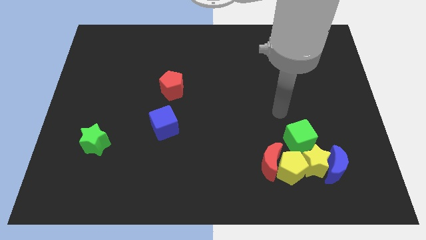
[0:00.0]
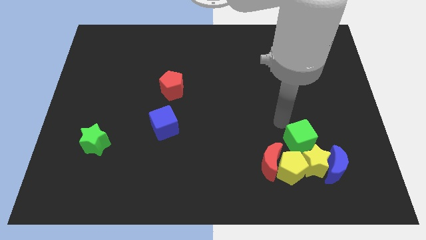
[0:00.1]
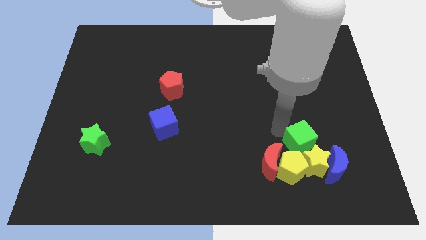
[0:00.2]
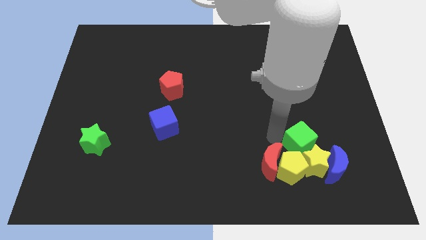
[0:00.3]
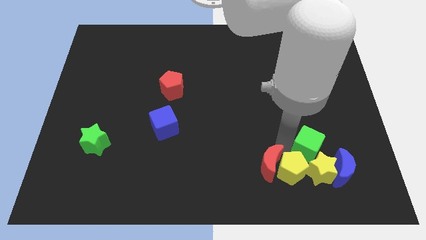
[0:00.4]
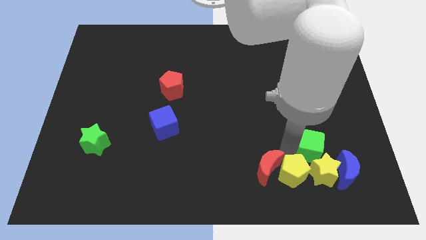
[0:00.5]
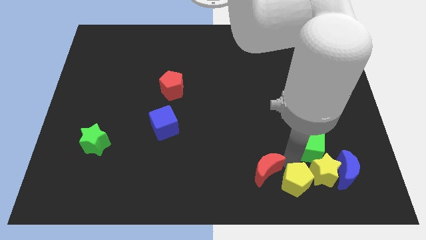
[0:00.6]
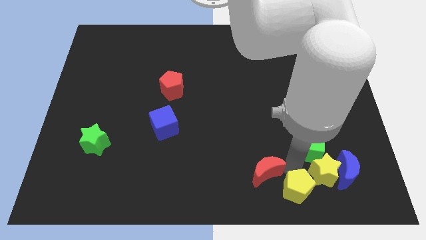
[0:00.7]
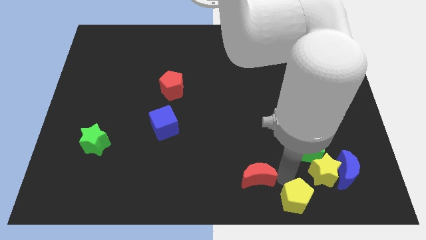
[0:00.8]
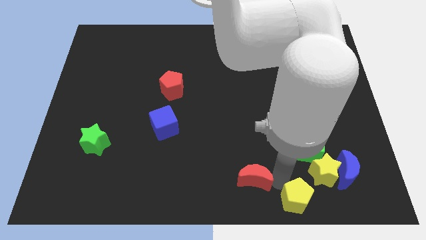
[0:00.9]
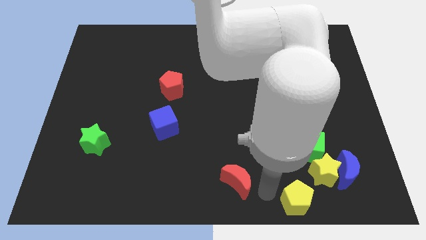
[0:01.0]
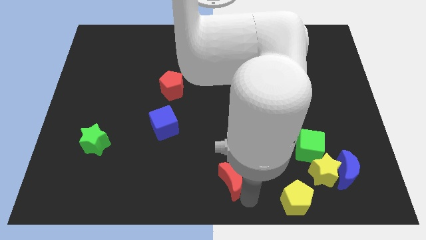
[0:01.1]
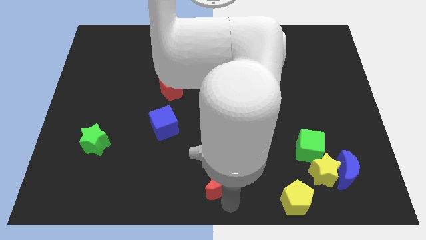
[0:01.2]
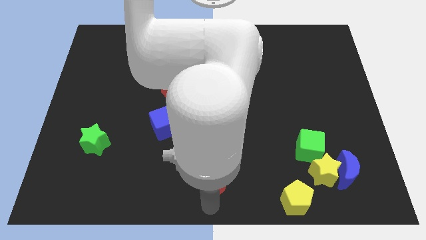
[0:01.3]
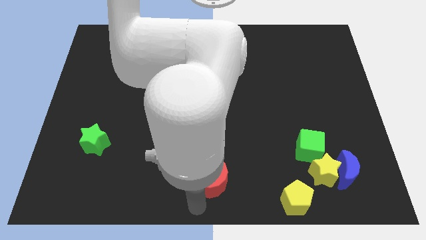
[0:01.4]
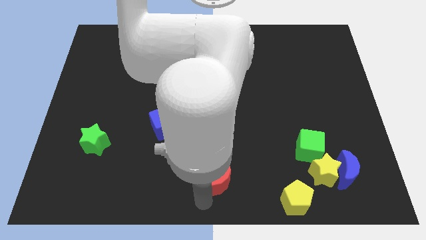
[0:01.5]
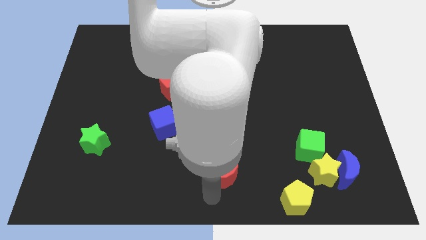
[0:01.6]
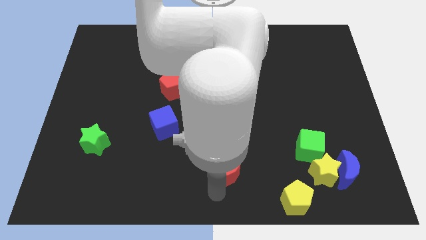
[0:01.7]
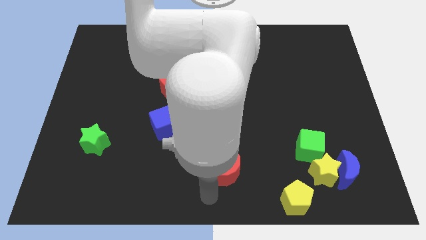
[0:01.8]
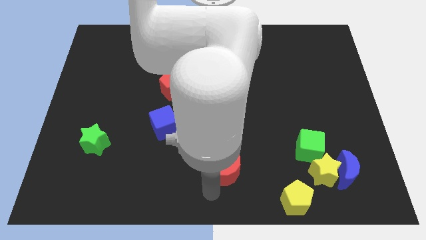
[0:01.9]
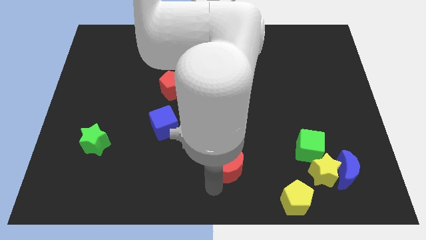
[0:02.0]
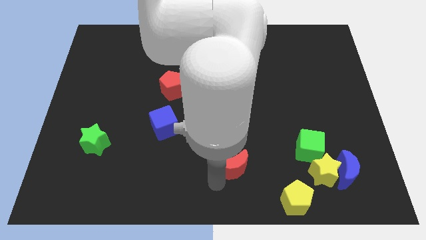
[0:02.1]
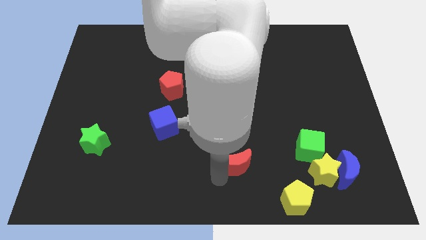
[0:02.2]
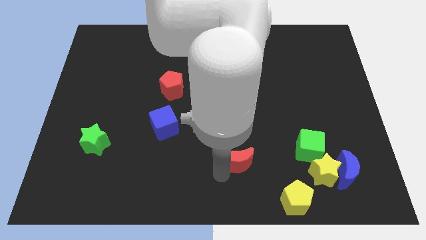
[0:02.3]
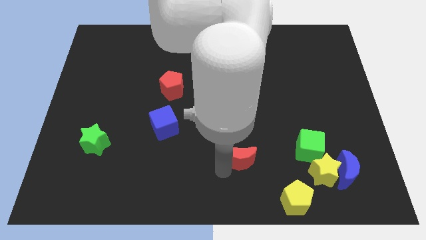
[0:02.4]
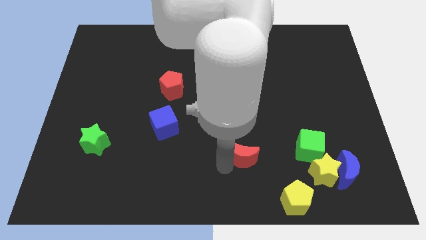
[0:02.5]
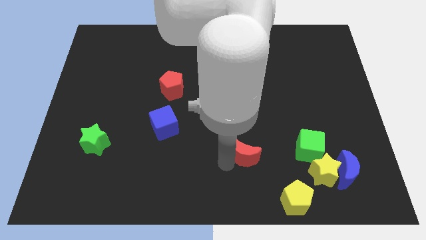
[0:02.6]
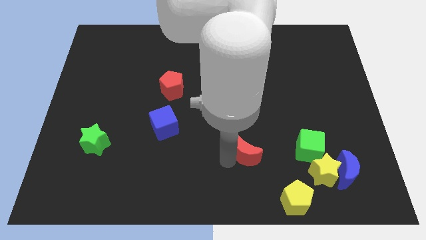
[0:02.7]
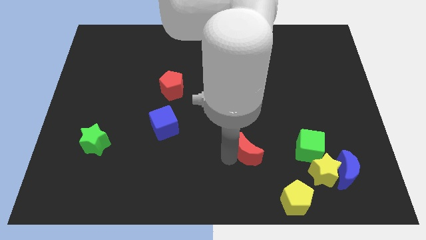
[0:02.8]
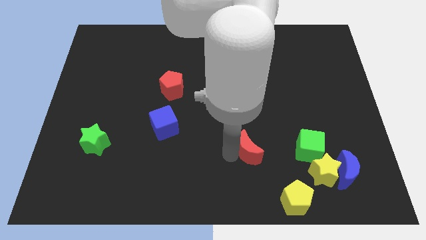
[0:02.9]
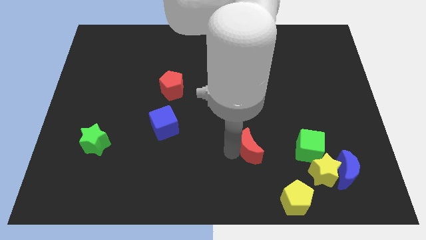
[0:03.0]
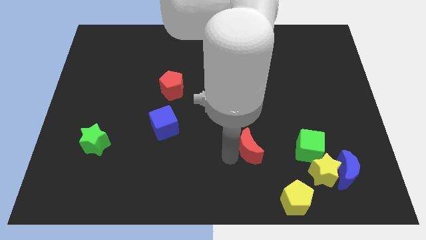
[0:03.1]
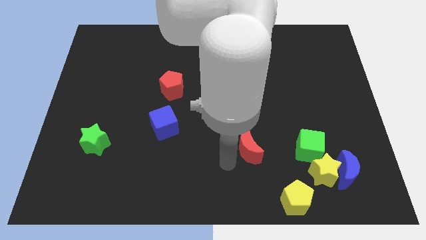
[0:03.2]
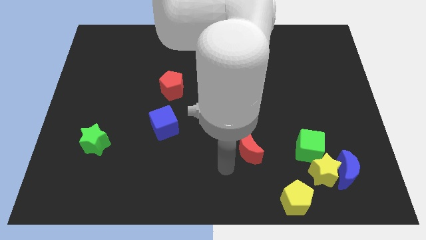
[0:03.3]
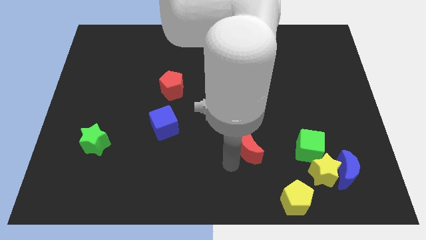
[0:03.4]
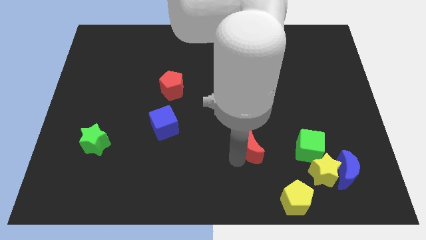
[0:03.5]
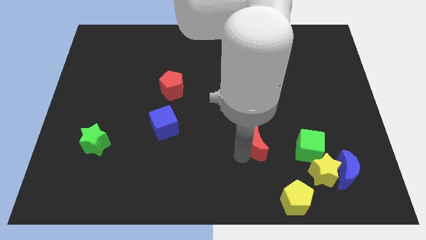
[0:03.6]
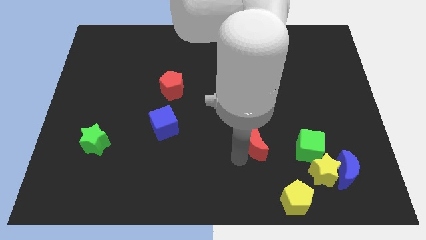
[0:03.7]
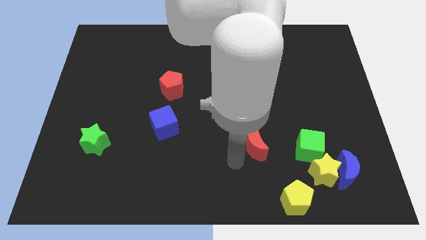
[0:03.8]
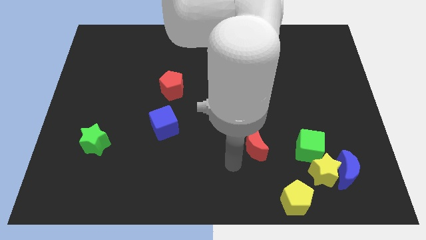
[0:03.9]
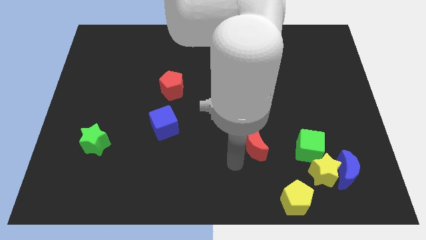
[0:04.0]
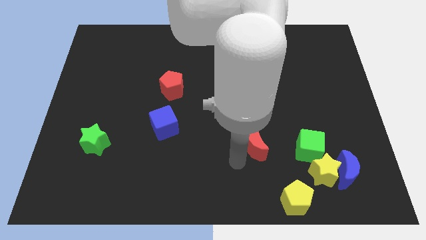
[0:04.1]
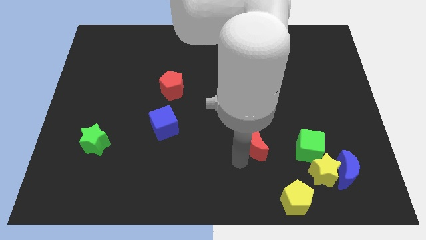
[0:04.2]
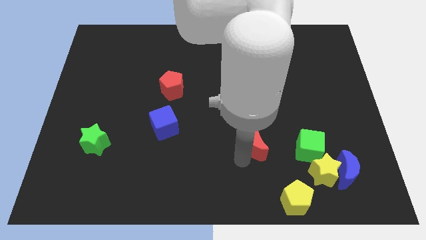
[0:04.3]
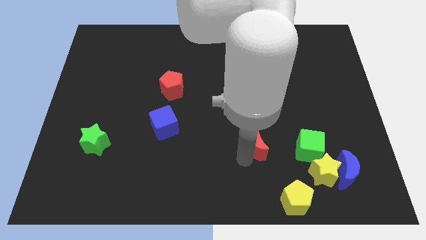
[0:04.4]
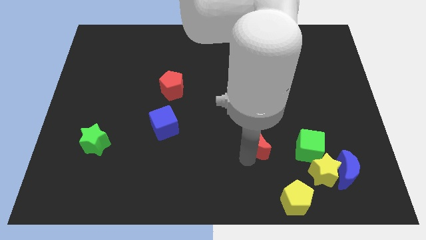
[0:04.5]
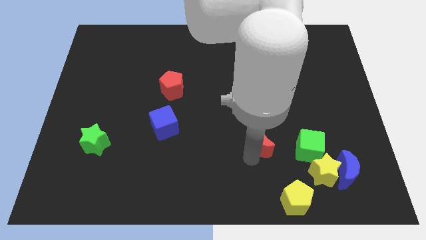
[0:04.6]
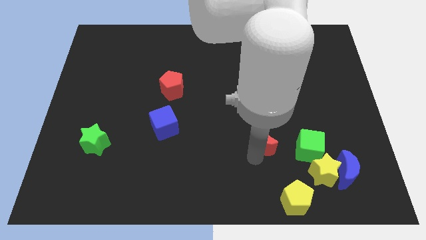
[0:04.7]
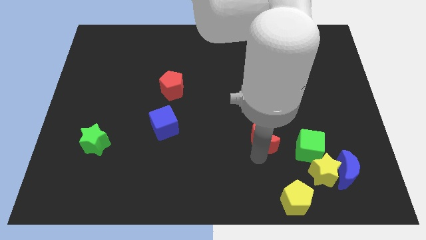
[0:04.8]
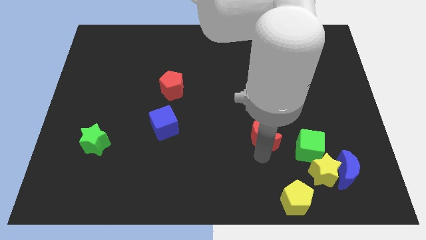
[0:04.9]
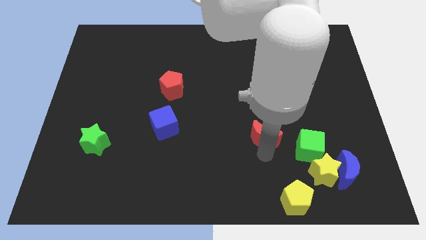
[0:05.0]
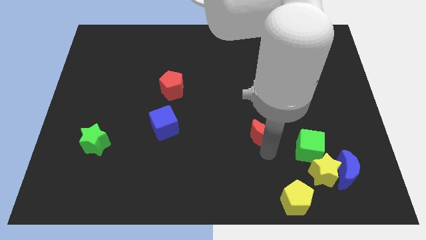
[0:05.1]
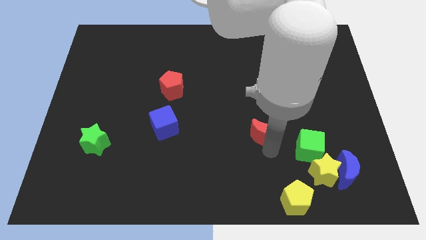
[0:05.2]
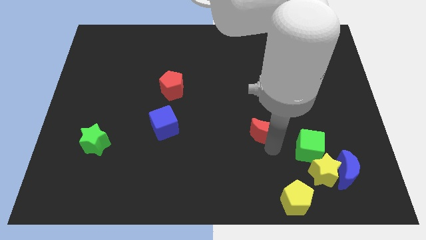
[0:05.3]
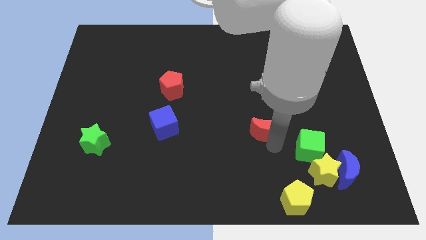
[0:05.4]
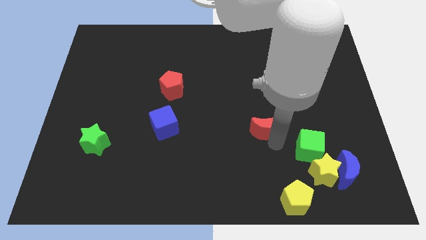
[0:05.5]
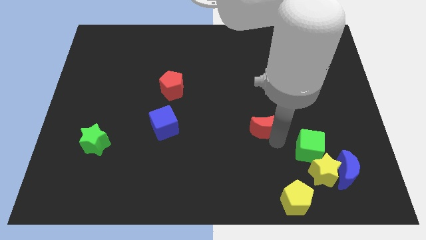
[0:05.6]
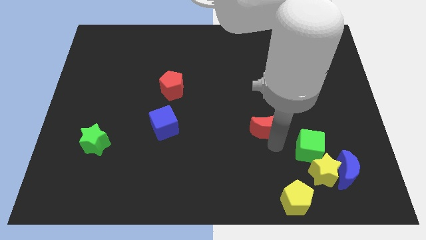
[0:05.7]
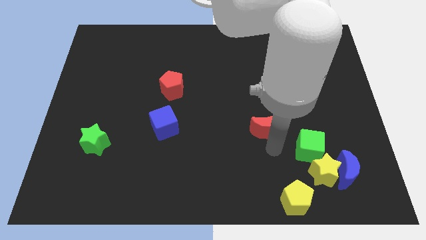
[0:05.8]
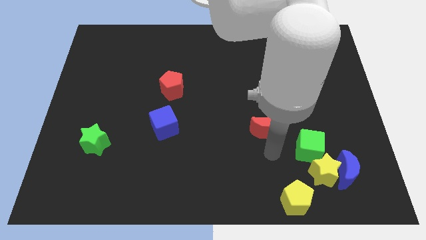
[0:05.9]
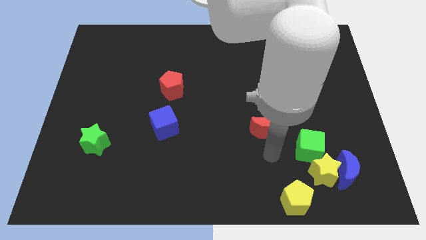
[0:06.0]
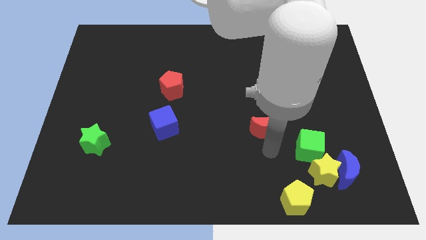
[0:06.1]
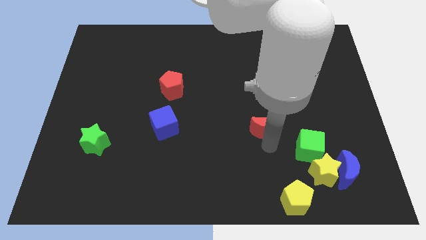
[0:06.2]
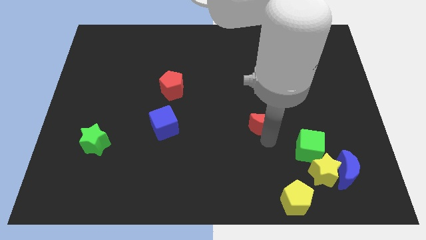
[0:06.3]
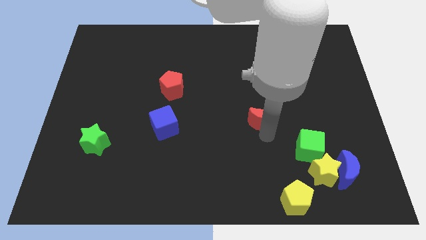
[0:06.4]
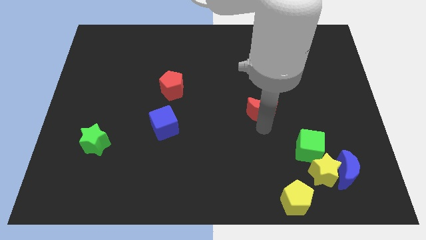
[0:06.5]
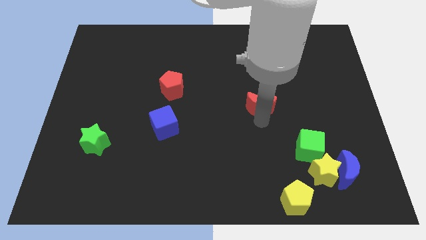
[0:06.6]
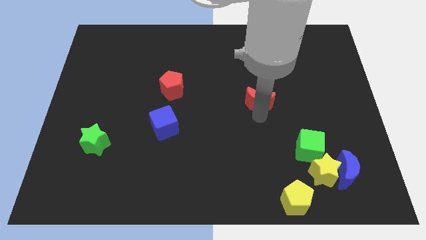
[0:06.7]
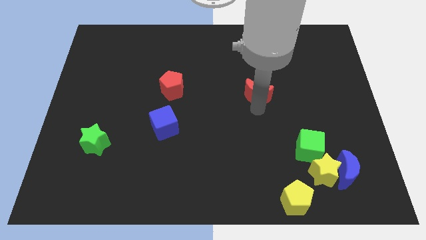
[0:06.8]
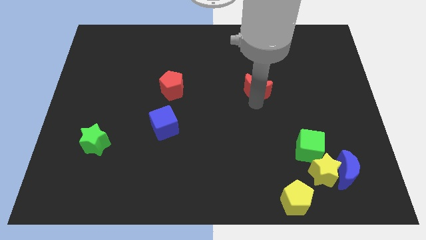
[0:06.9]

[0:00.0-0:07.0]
push the red moon up

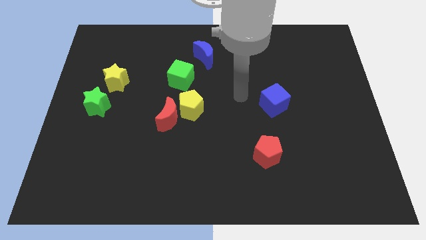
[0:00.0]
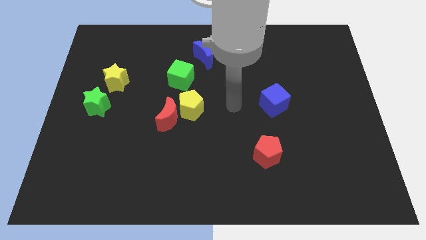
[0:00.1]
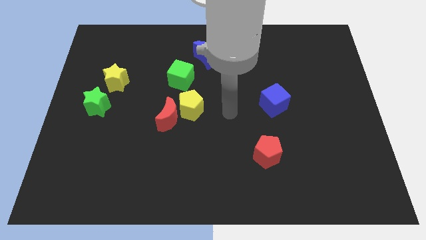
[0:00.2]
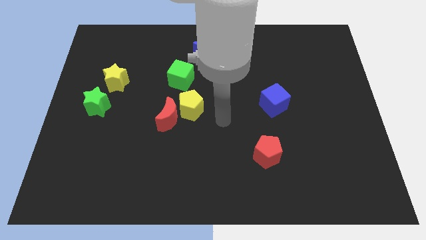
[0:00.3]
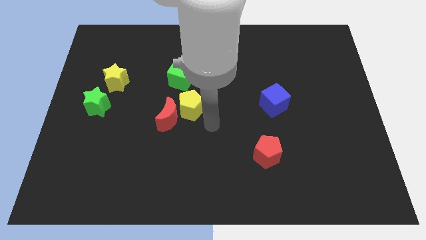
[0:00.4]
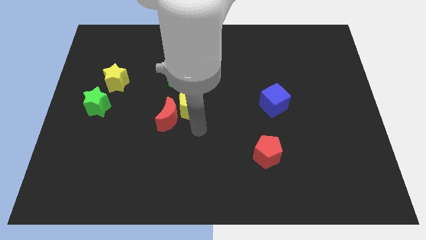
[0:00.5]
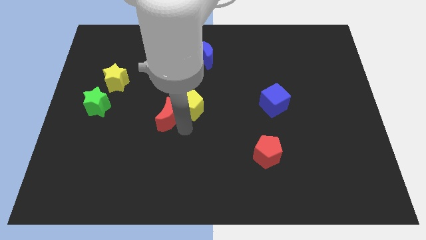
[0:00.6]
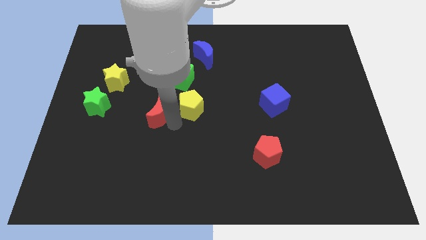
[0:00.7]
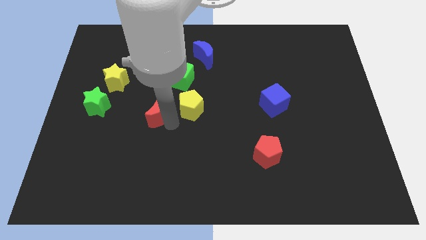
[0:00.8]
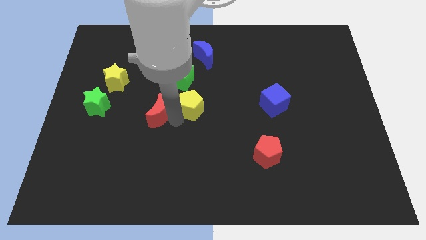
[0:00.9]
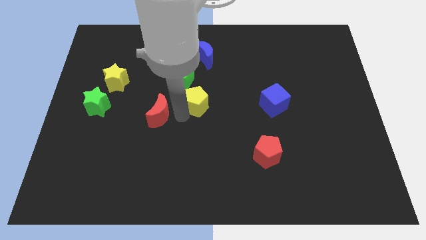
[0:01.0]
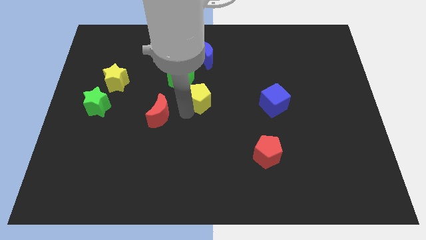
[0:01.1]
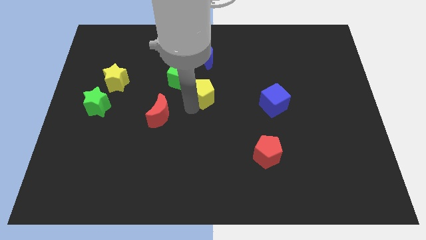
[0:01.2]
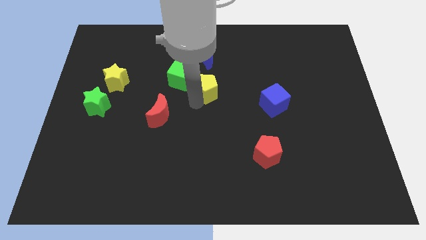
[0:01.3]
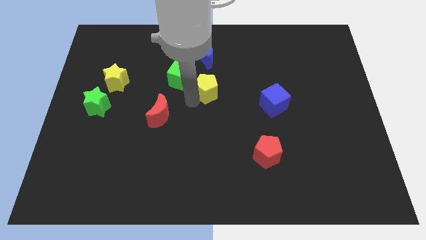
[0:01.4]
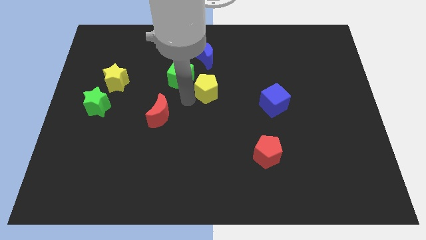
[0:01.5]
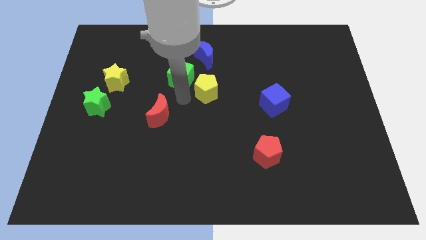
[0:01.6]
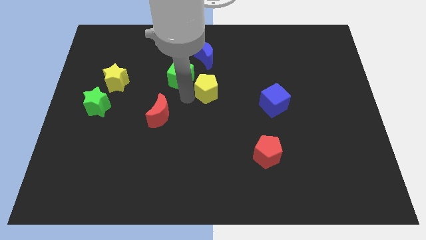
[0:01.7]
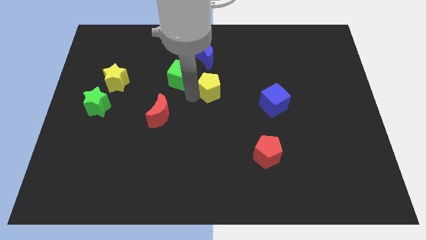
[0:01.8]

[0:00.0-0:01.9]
push the yellow pentagon up and to the right diagonally a little bit
